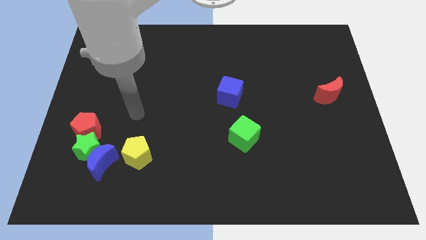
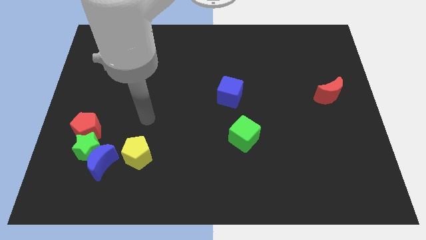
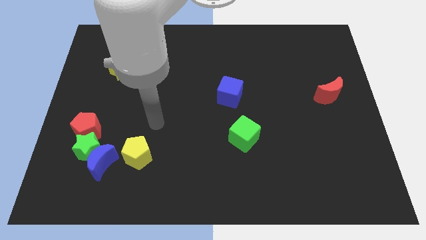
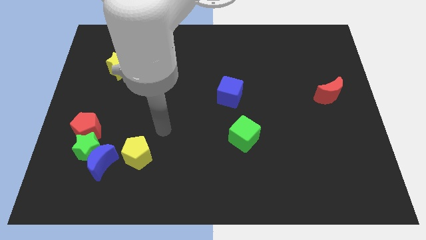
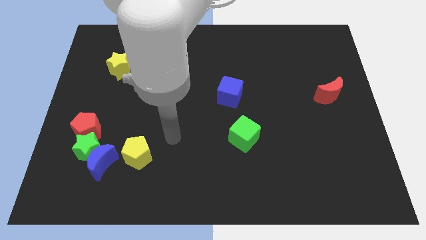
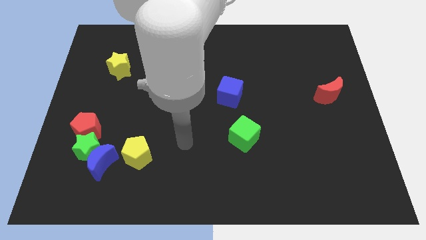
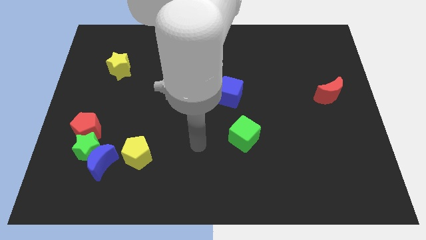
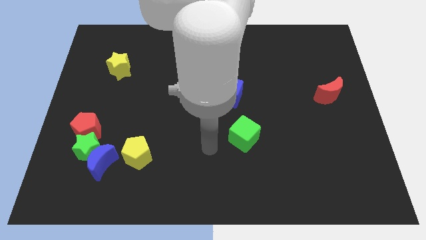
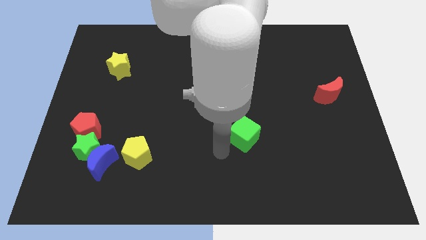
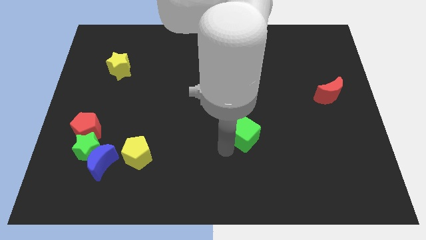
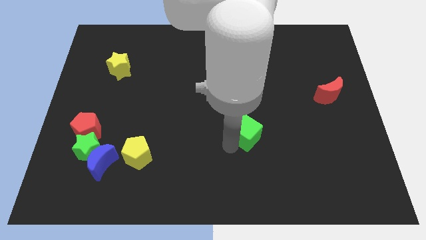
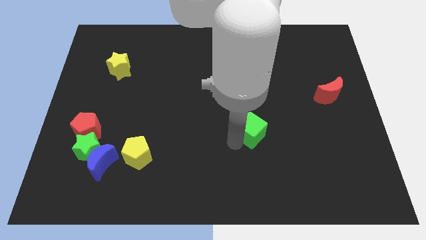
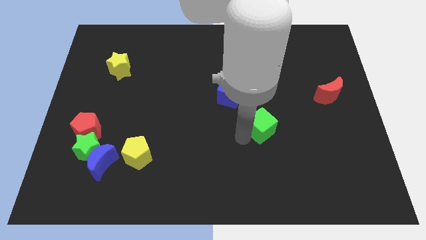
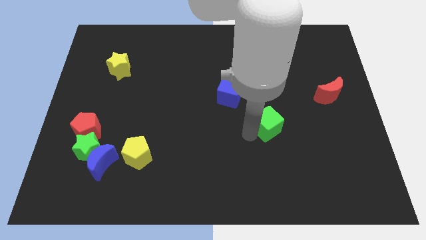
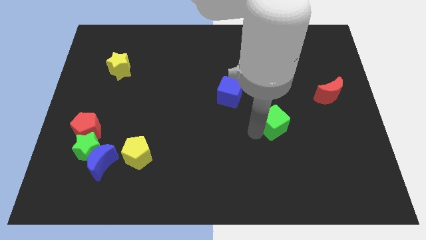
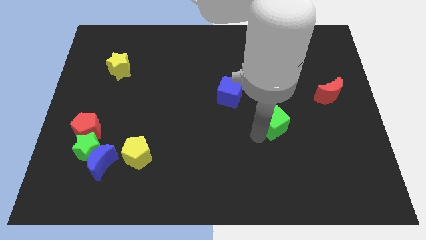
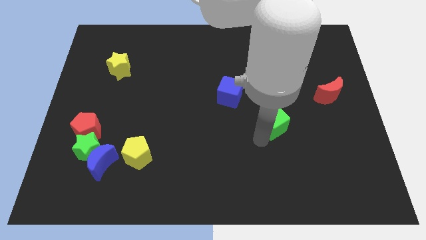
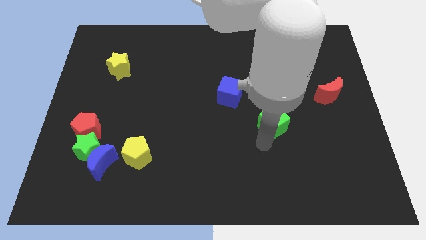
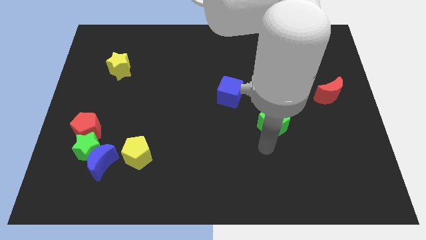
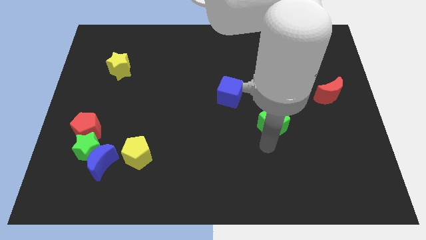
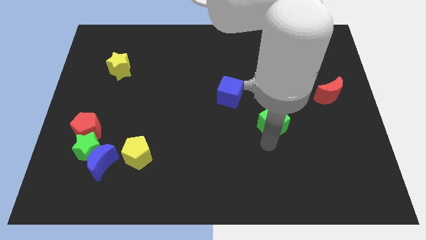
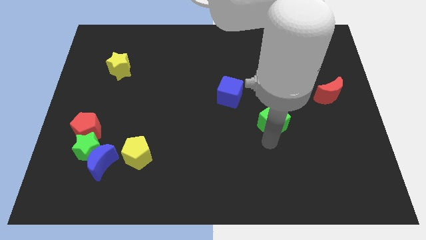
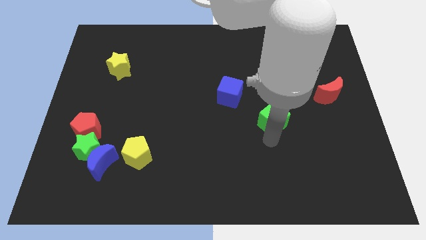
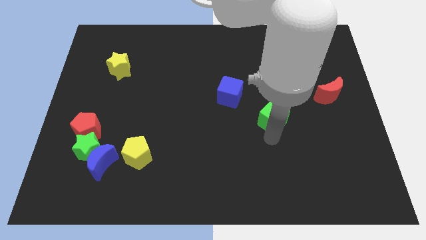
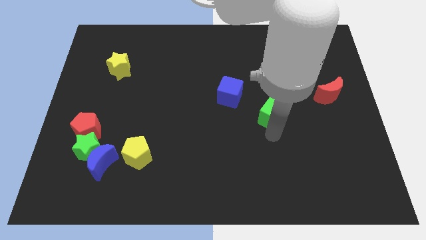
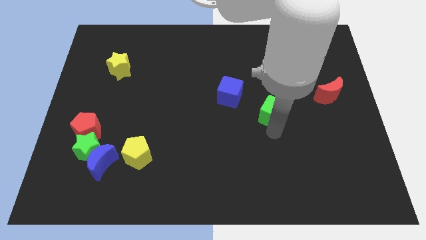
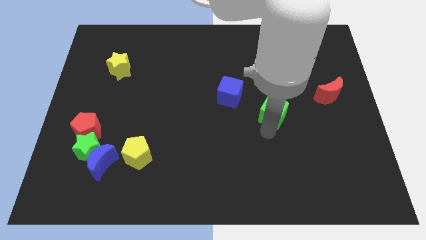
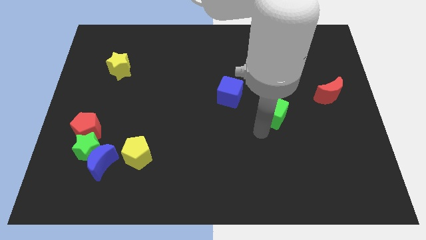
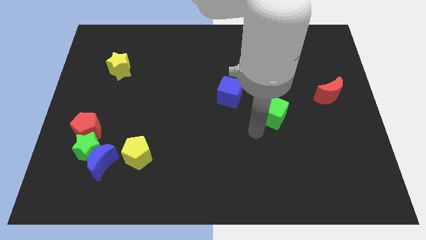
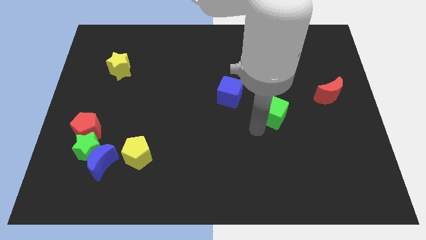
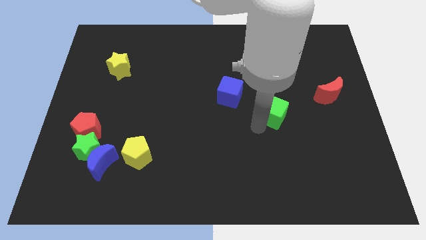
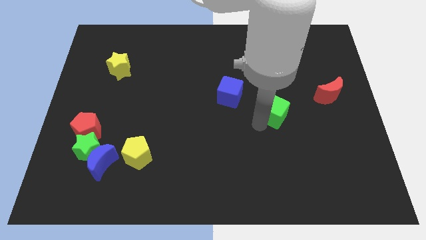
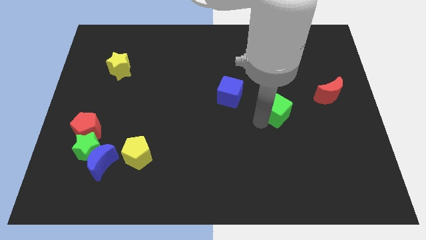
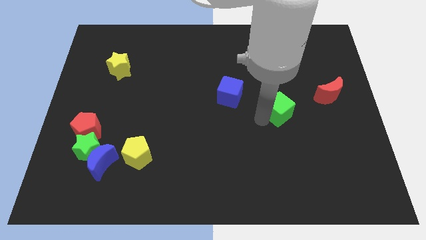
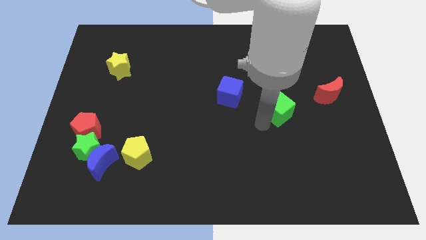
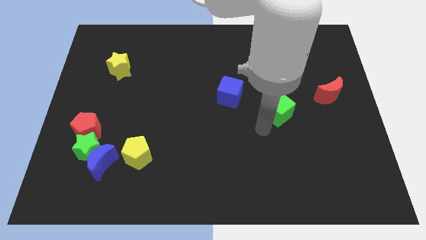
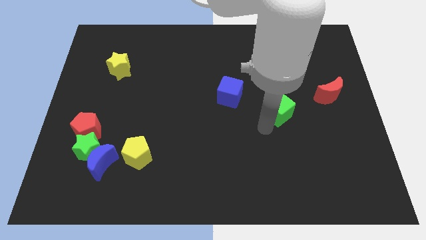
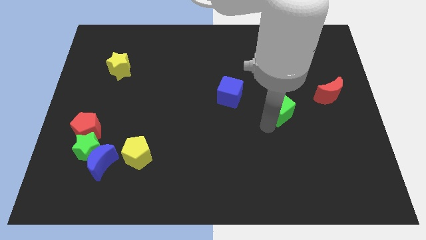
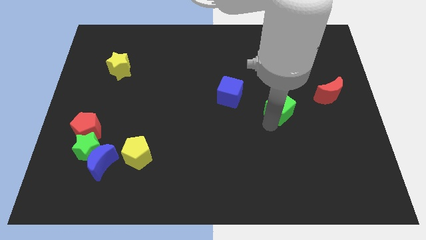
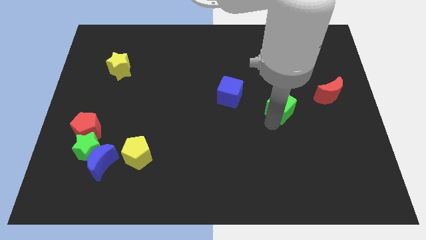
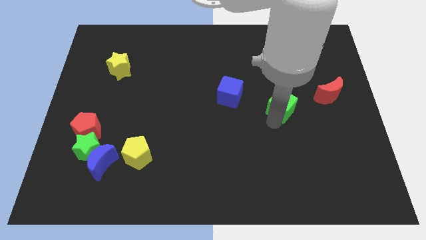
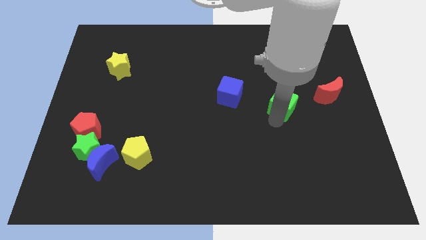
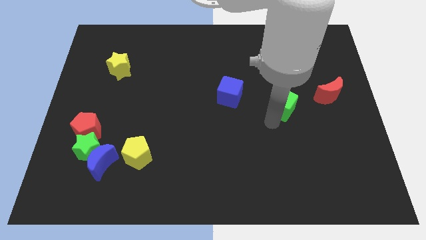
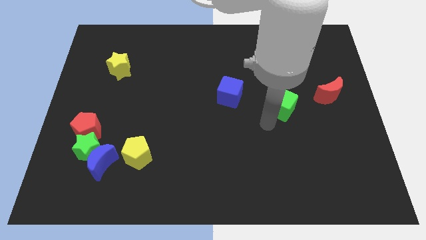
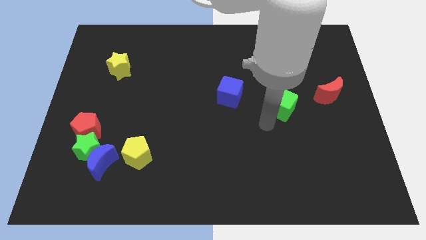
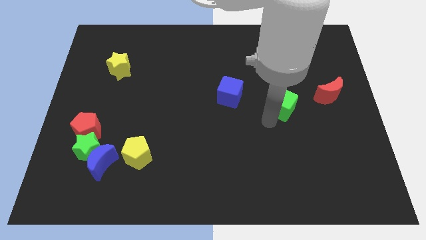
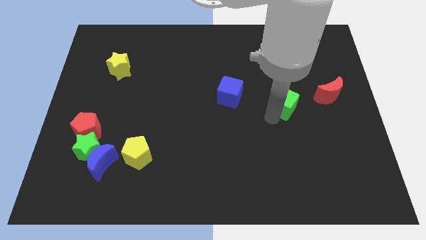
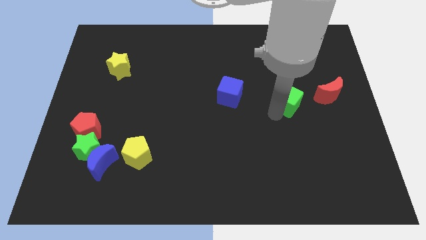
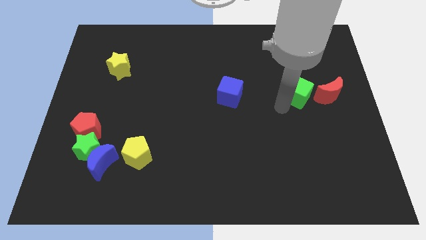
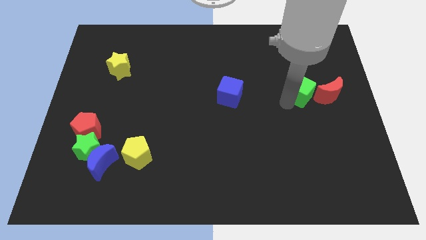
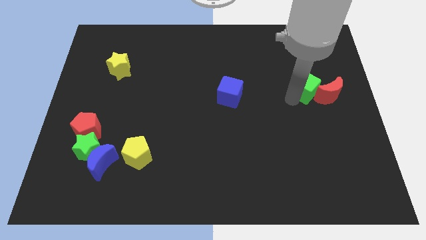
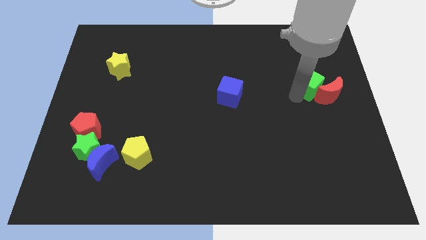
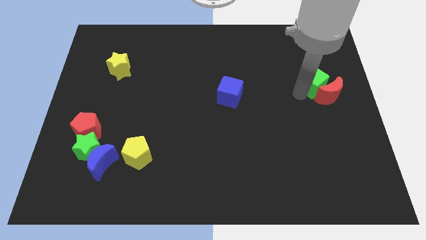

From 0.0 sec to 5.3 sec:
push the green cube to the top side of the red moon

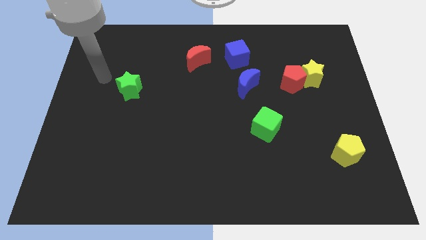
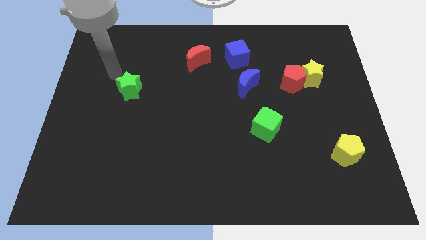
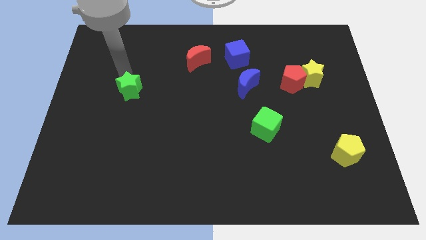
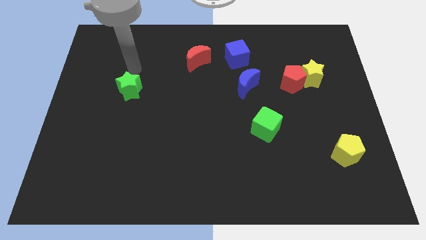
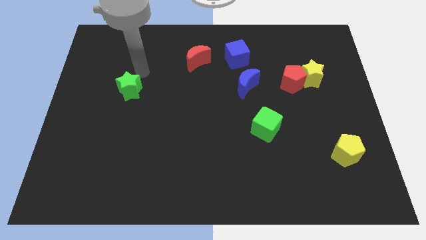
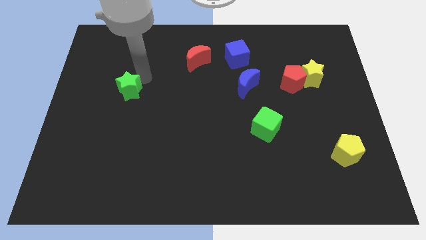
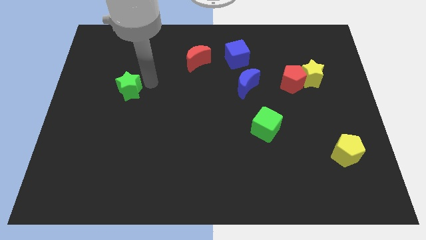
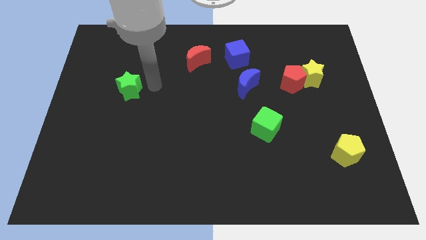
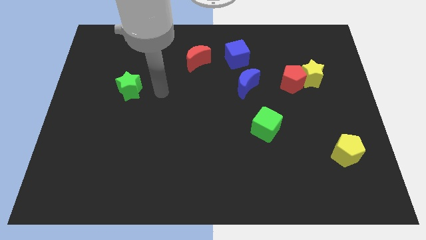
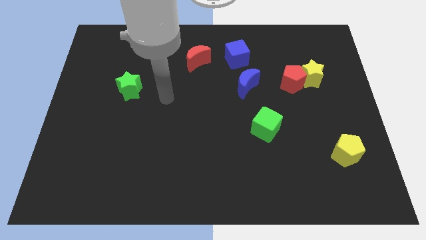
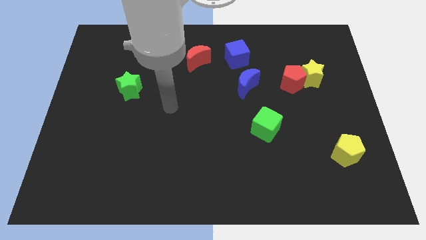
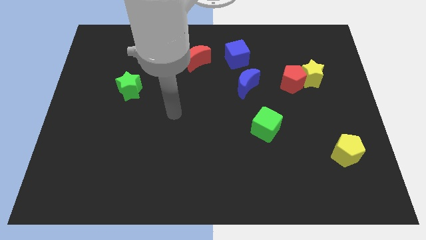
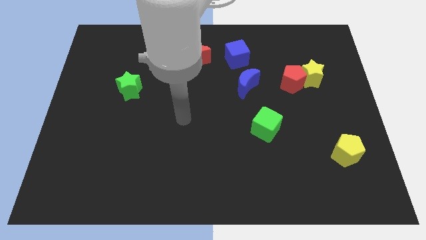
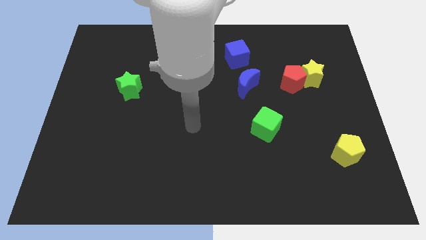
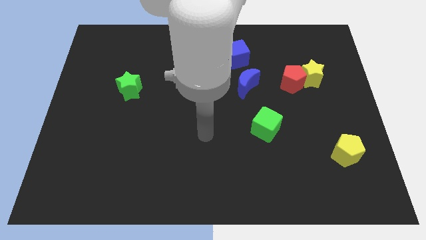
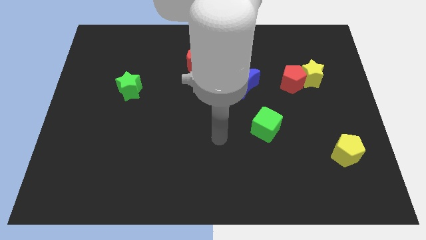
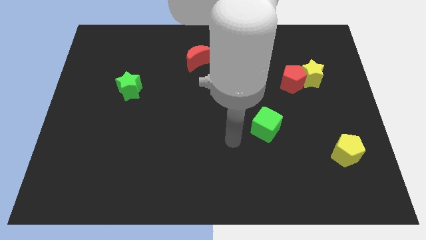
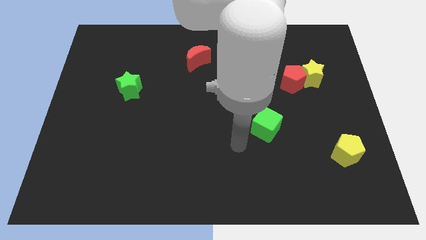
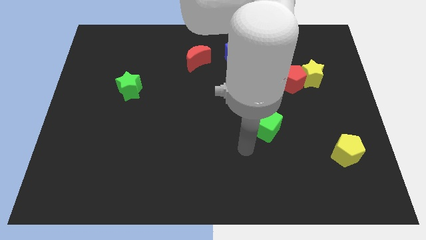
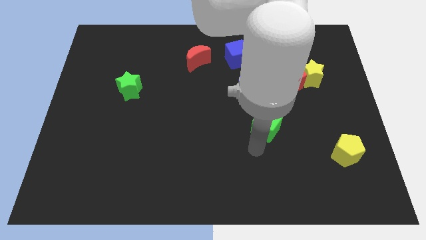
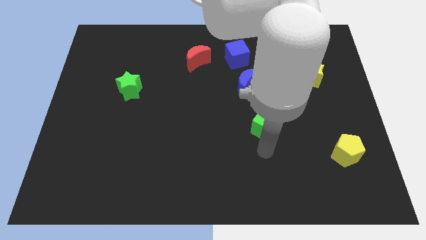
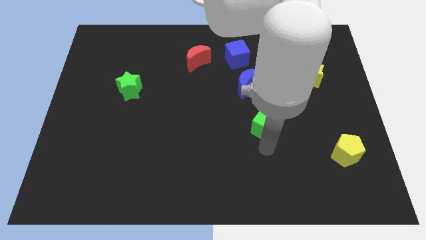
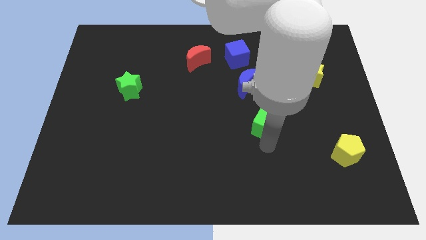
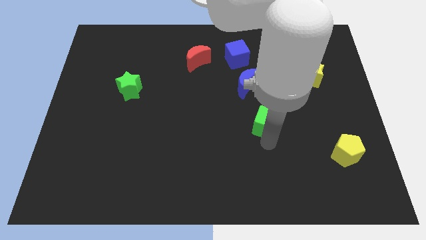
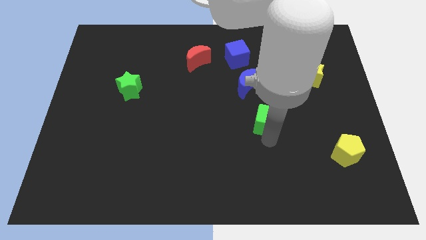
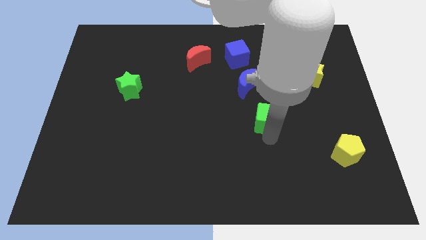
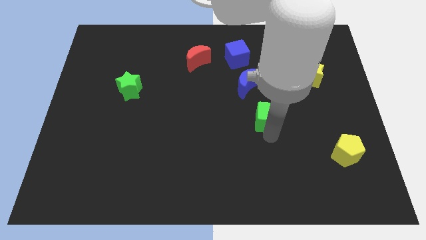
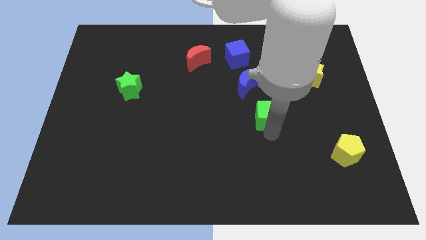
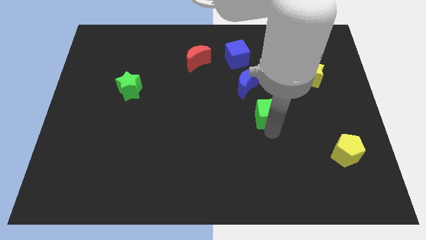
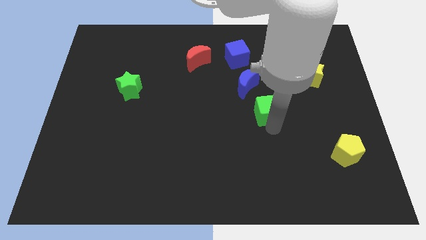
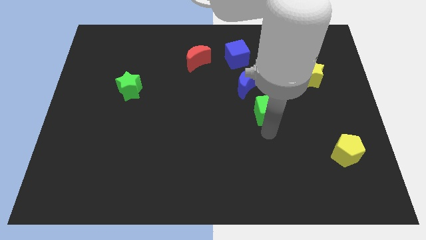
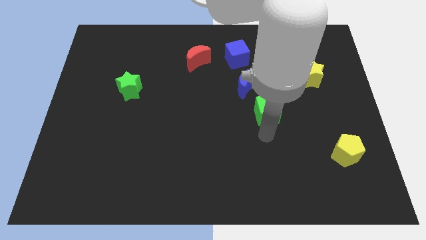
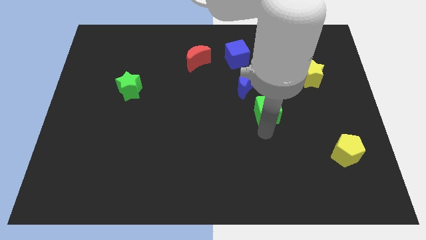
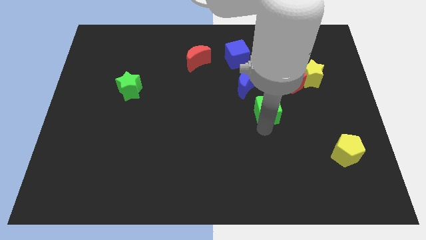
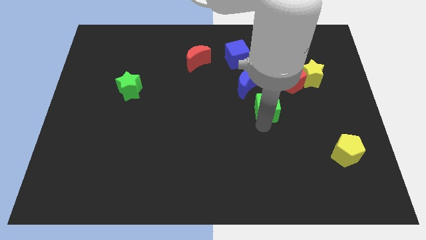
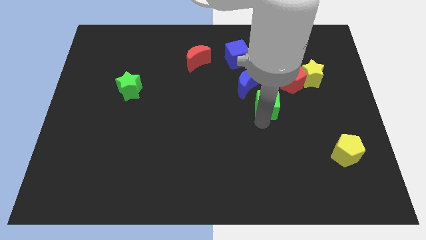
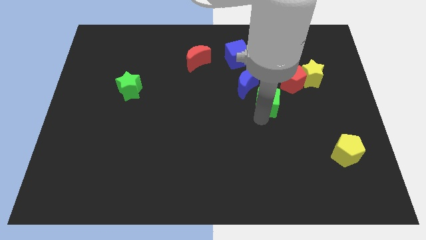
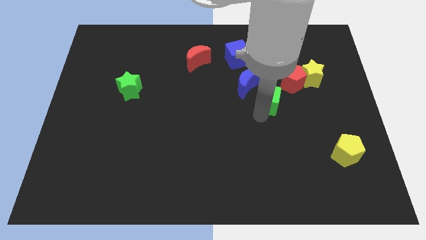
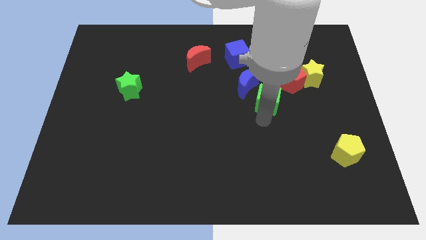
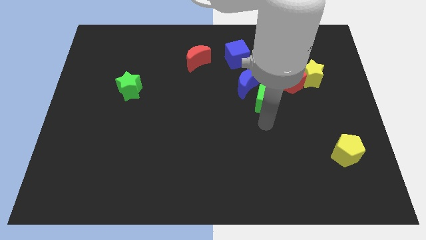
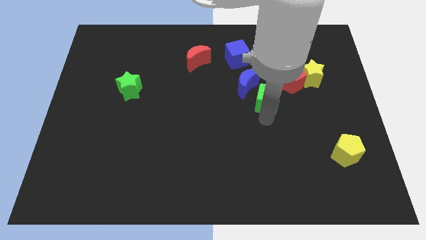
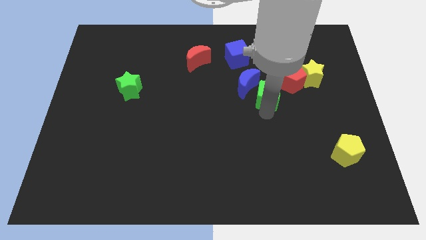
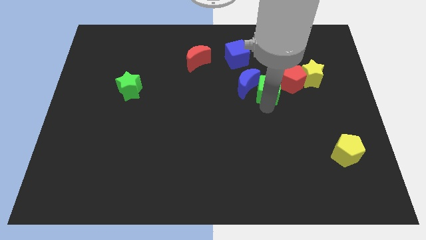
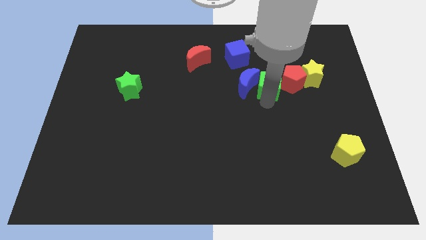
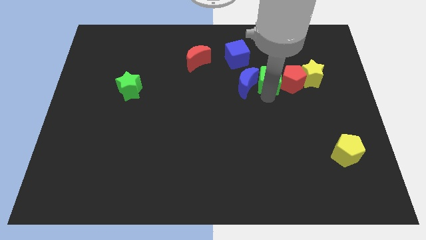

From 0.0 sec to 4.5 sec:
move the green cube diagonally up and to the left of the red pentagon
